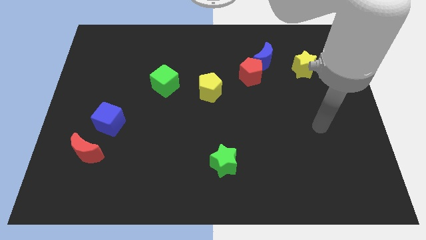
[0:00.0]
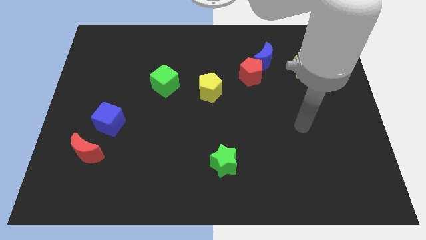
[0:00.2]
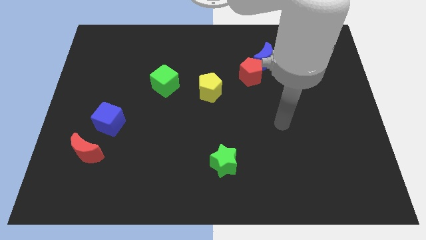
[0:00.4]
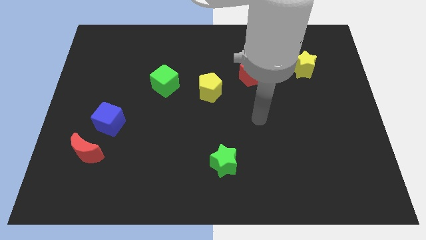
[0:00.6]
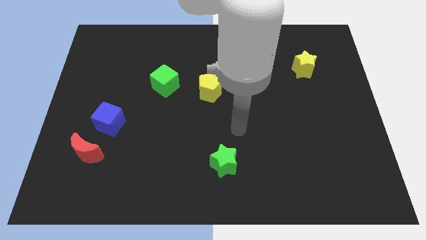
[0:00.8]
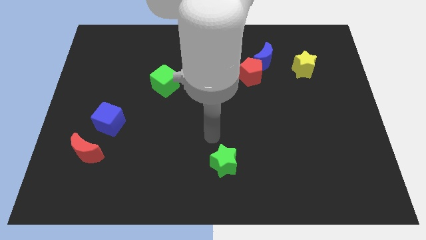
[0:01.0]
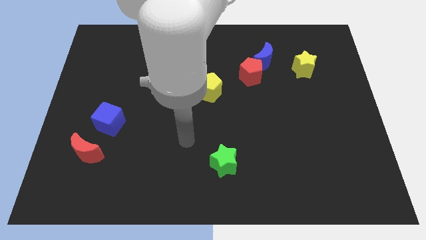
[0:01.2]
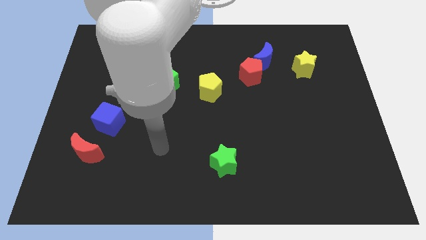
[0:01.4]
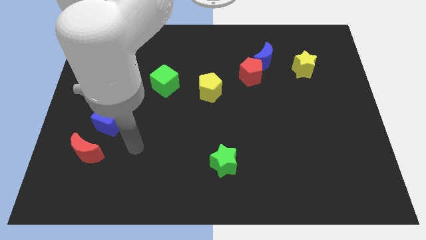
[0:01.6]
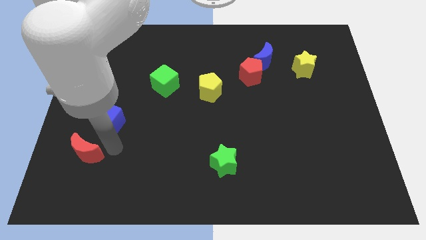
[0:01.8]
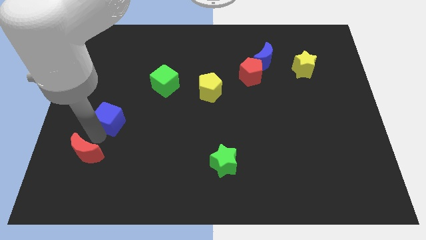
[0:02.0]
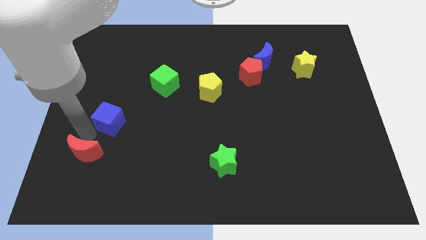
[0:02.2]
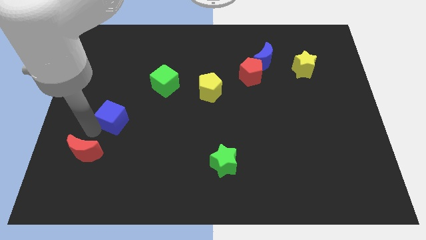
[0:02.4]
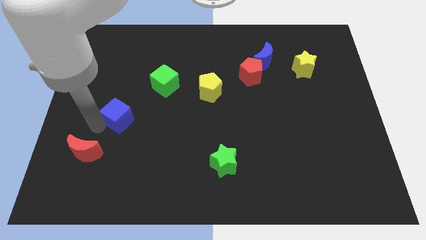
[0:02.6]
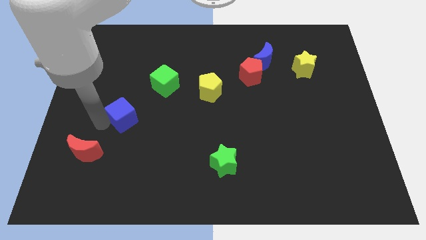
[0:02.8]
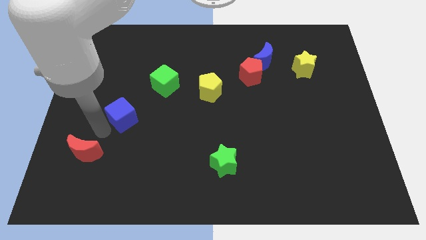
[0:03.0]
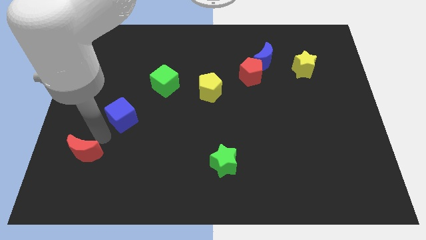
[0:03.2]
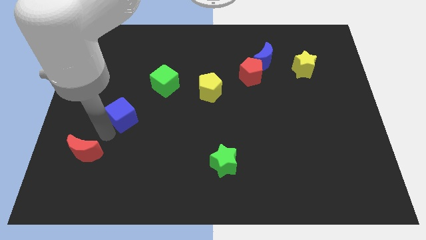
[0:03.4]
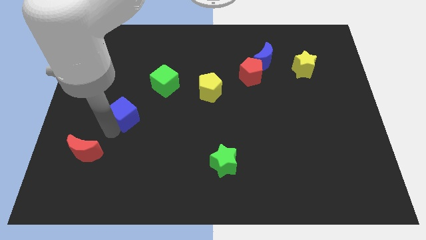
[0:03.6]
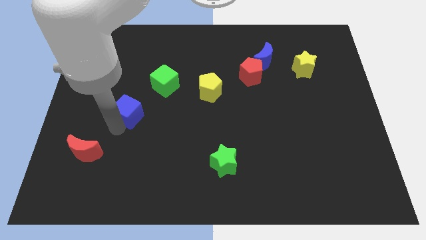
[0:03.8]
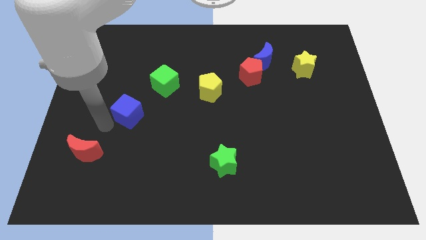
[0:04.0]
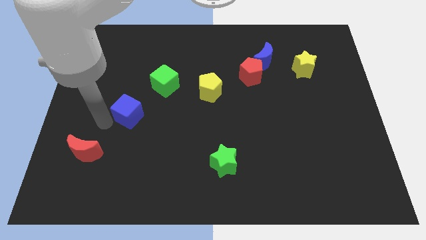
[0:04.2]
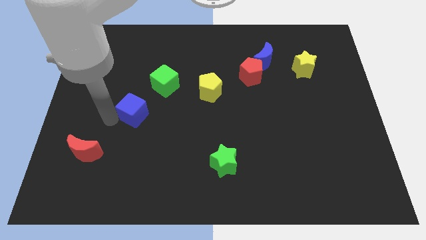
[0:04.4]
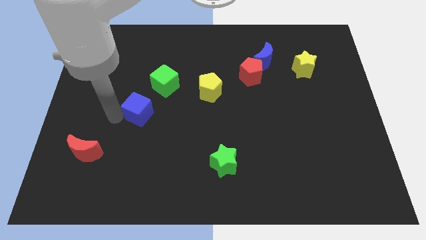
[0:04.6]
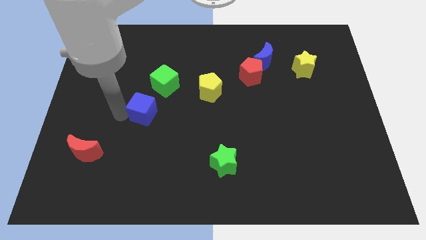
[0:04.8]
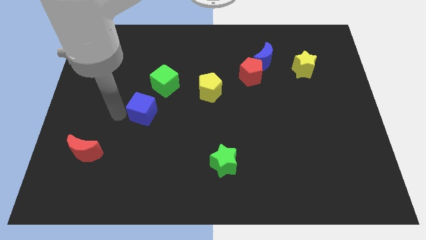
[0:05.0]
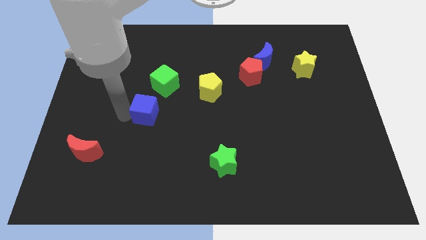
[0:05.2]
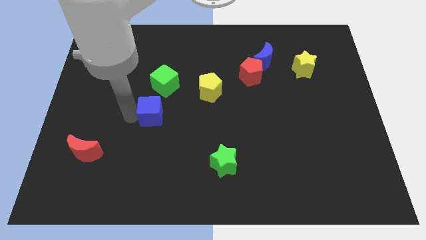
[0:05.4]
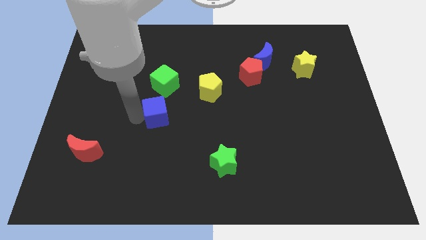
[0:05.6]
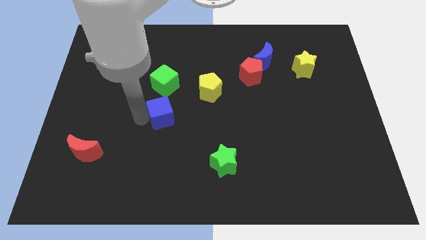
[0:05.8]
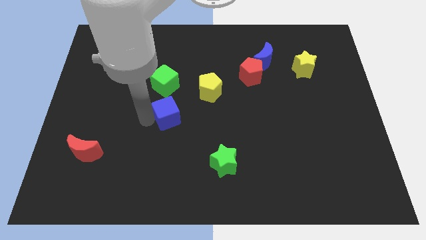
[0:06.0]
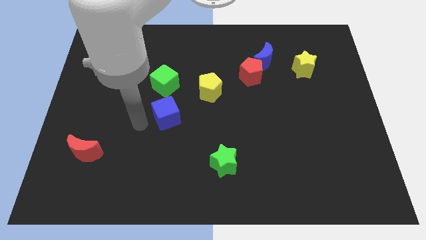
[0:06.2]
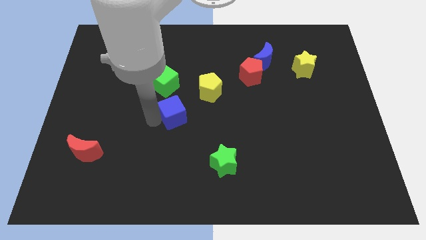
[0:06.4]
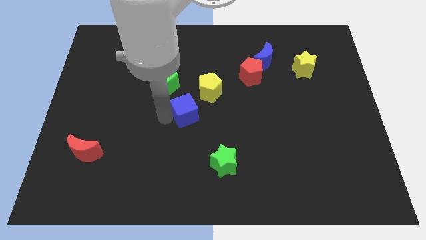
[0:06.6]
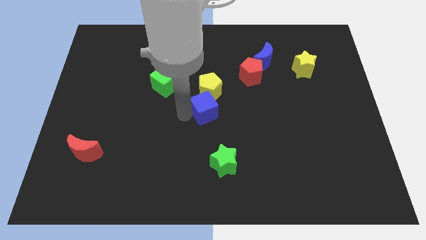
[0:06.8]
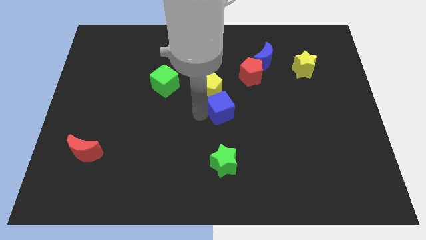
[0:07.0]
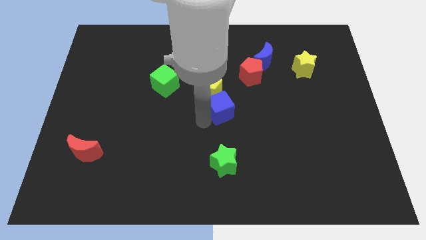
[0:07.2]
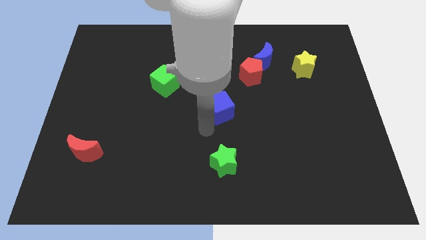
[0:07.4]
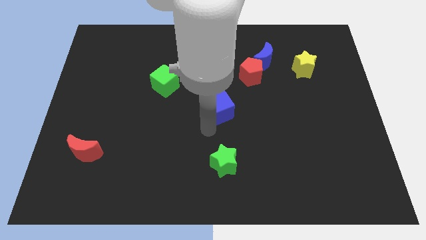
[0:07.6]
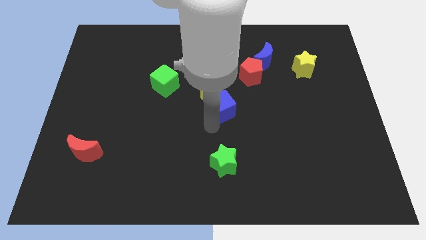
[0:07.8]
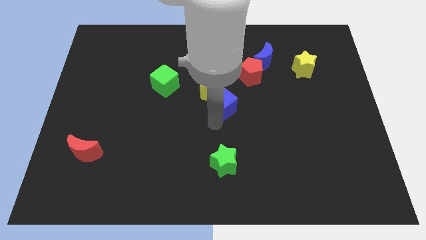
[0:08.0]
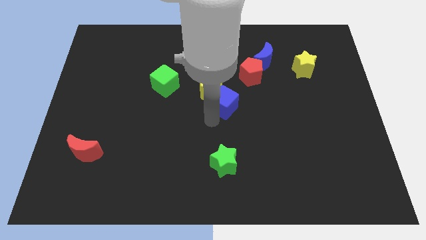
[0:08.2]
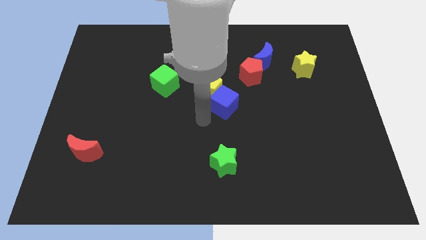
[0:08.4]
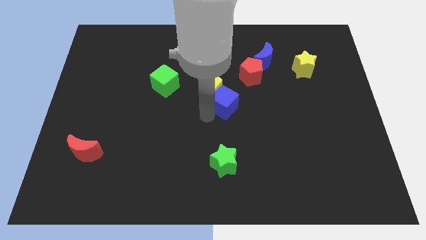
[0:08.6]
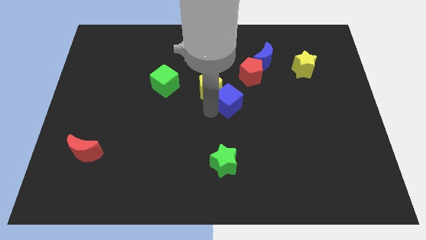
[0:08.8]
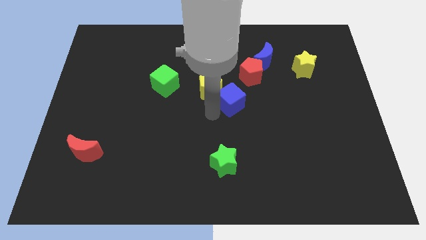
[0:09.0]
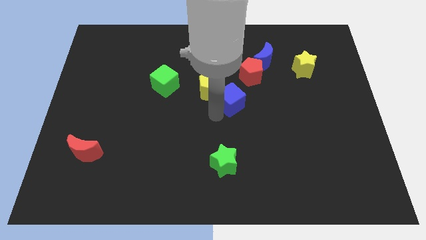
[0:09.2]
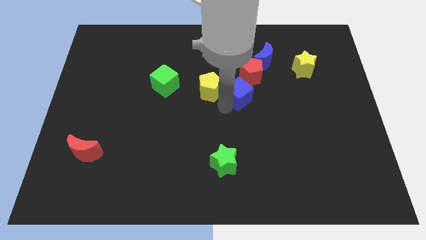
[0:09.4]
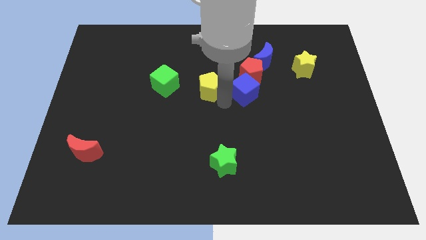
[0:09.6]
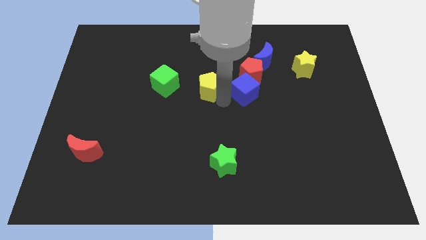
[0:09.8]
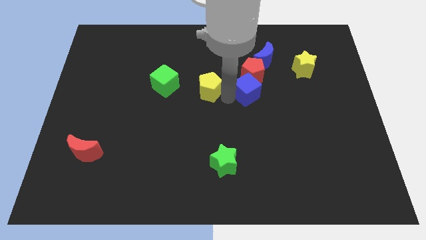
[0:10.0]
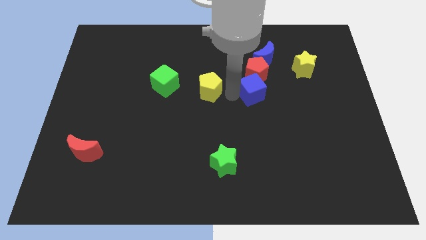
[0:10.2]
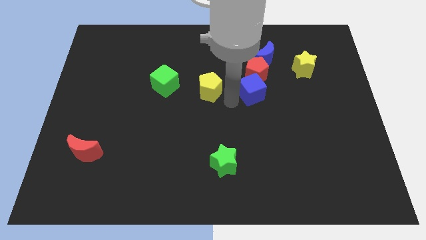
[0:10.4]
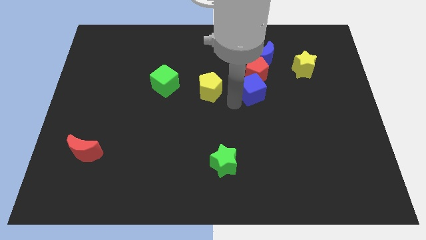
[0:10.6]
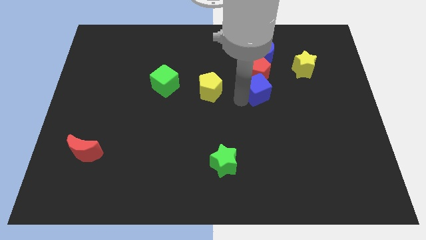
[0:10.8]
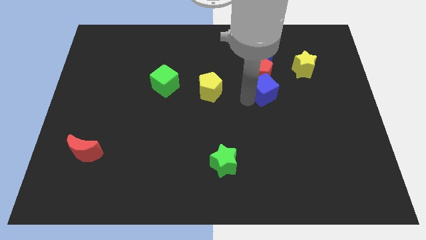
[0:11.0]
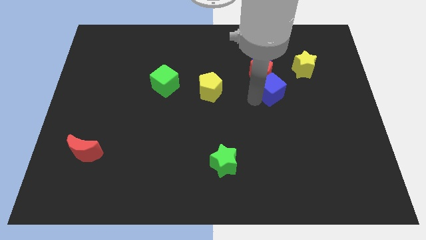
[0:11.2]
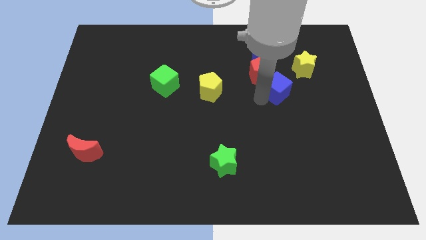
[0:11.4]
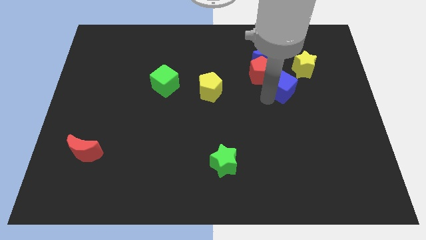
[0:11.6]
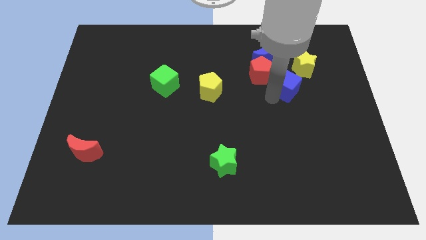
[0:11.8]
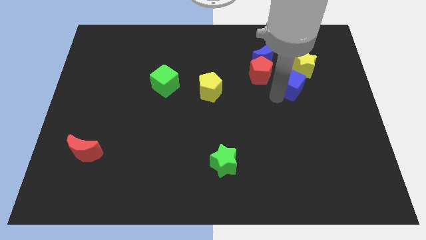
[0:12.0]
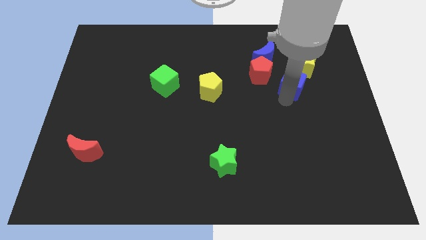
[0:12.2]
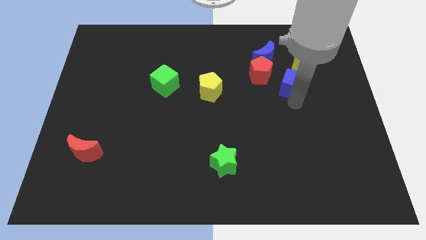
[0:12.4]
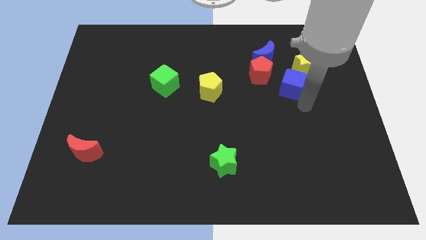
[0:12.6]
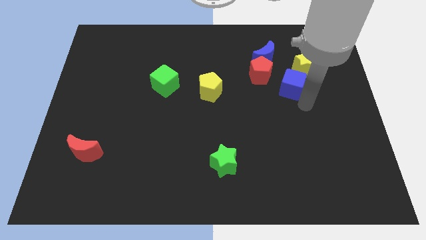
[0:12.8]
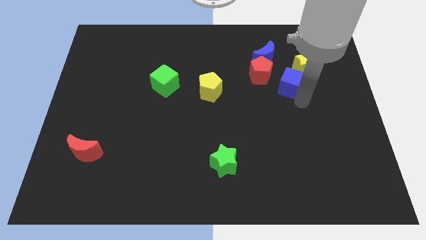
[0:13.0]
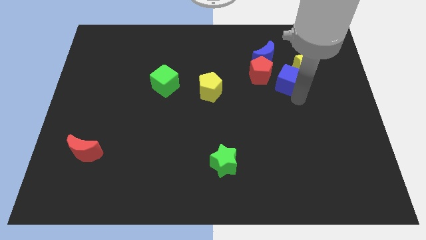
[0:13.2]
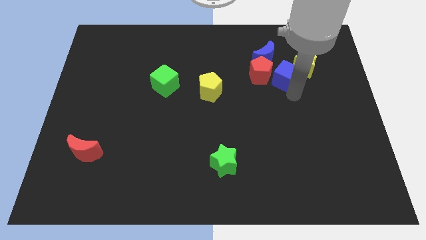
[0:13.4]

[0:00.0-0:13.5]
slide the blue cube next to the yellow star

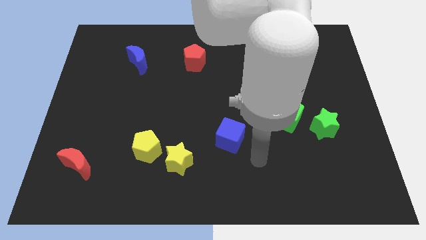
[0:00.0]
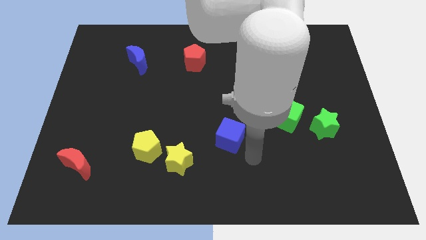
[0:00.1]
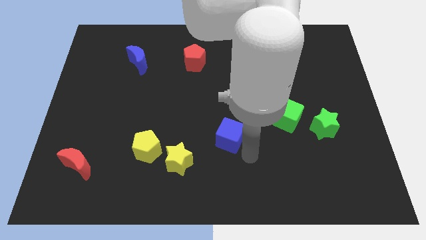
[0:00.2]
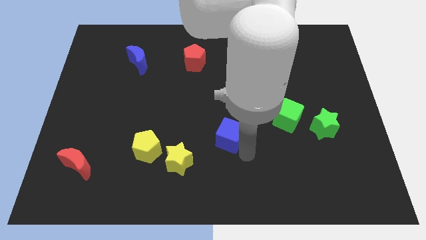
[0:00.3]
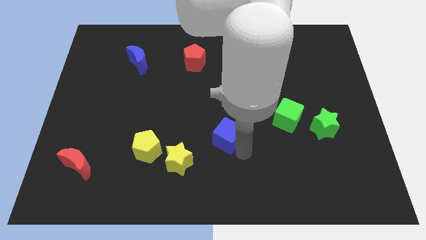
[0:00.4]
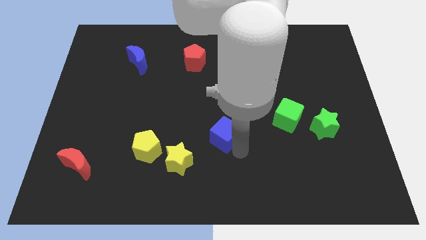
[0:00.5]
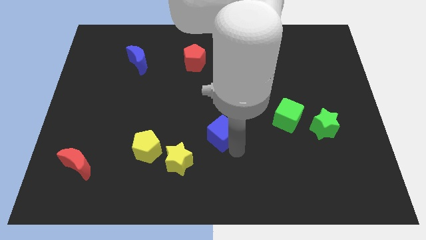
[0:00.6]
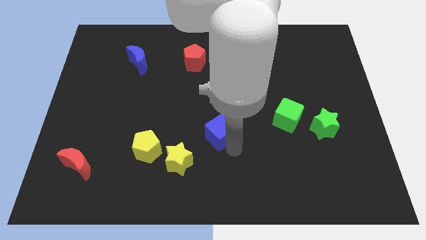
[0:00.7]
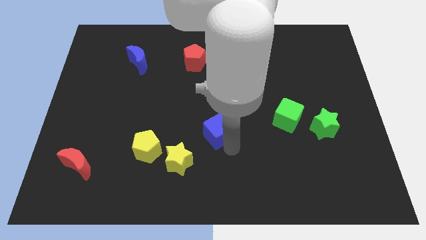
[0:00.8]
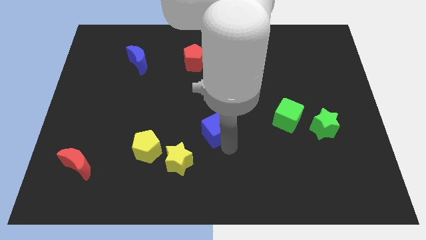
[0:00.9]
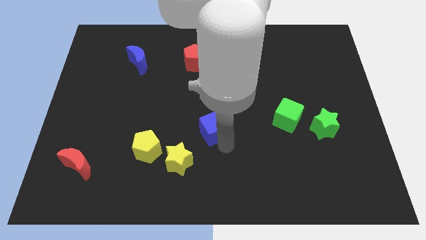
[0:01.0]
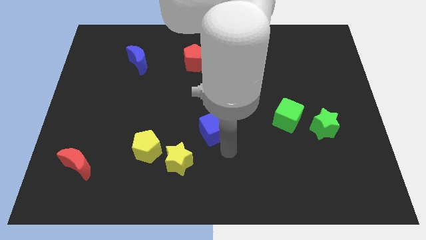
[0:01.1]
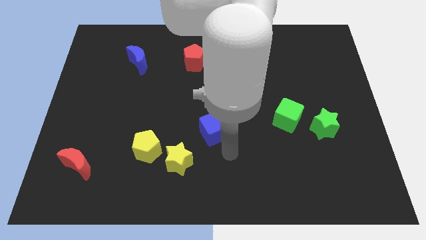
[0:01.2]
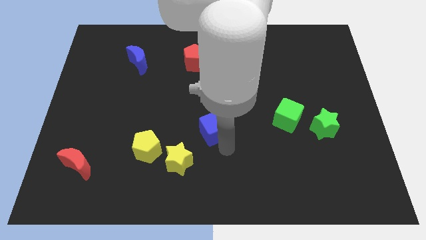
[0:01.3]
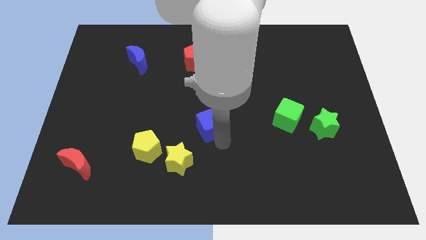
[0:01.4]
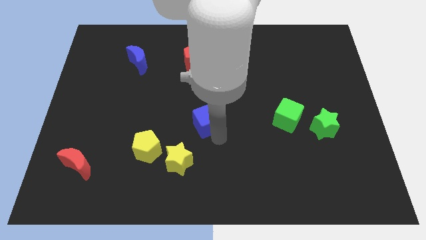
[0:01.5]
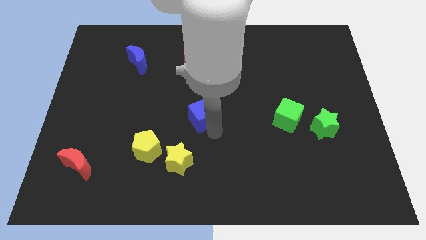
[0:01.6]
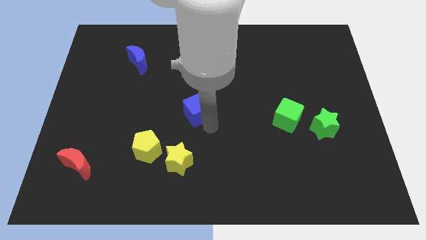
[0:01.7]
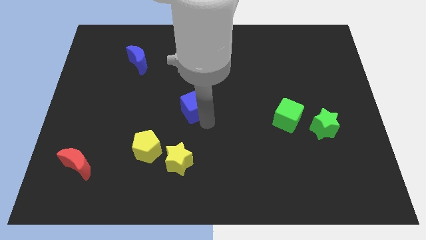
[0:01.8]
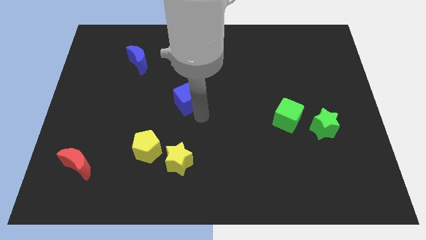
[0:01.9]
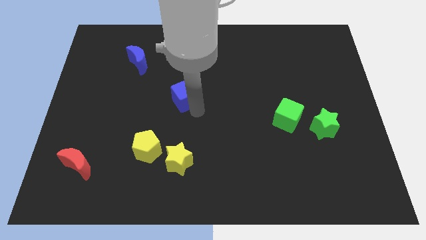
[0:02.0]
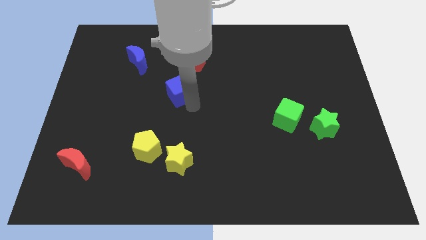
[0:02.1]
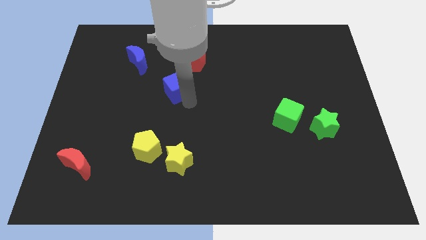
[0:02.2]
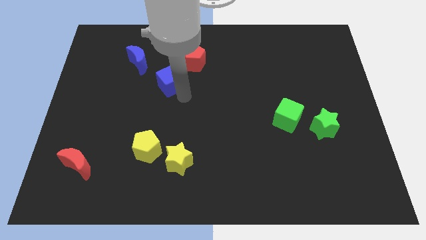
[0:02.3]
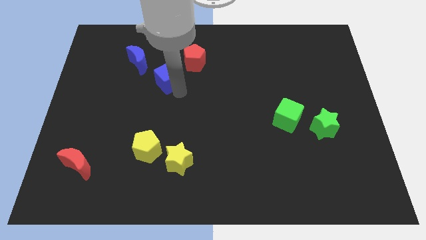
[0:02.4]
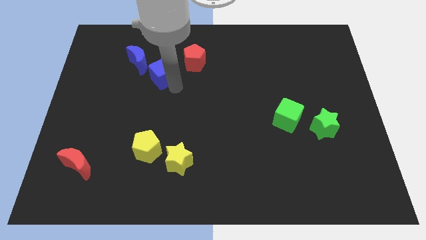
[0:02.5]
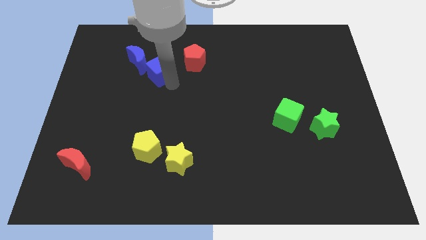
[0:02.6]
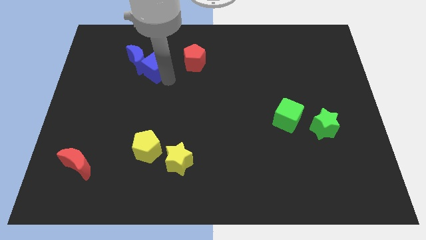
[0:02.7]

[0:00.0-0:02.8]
move the blue cube next to the blue moon
